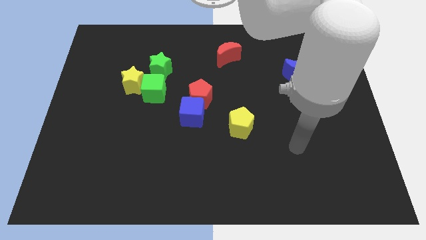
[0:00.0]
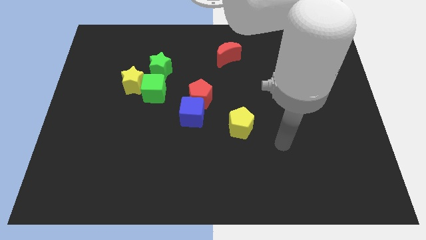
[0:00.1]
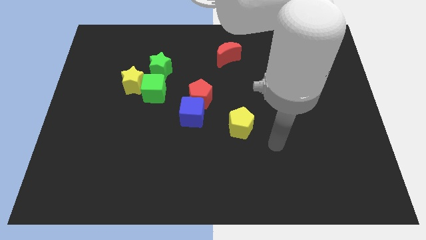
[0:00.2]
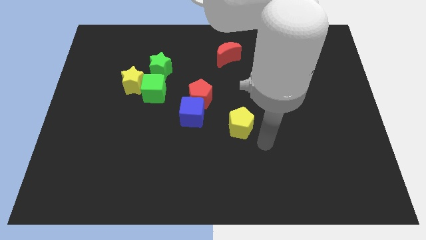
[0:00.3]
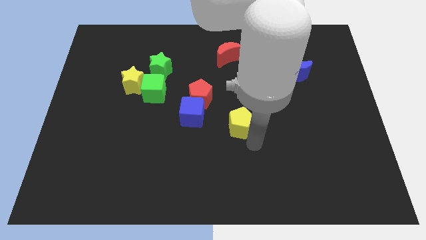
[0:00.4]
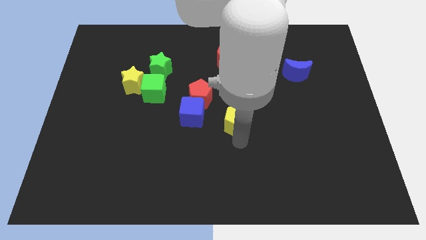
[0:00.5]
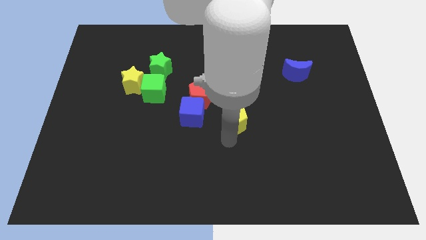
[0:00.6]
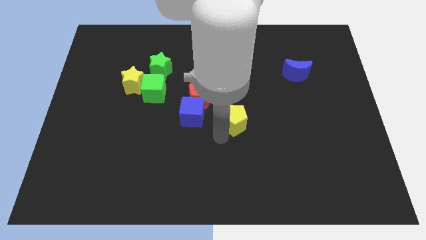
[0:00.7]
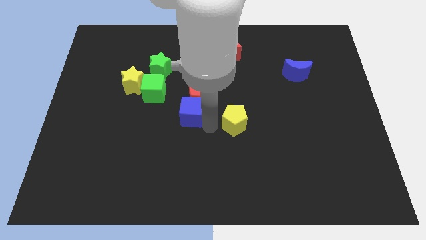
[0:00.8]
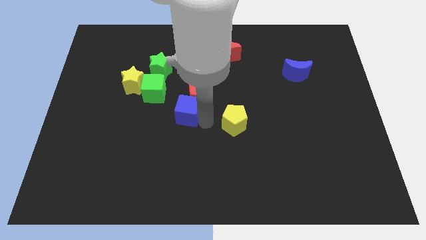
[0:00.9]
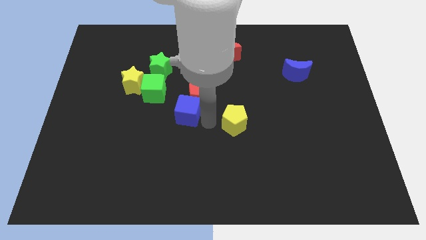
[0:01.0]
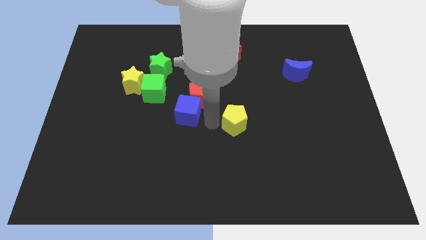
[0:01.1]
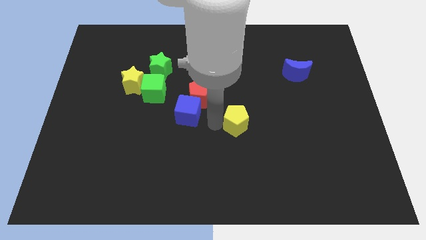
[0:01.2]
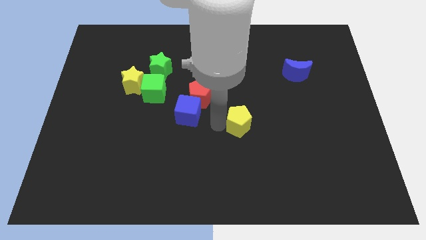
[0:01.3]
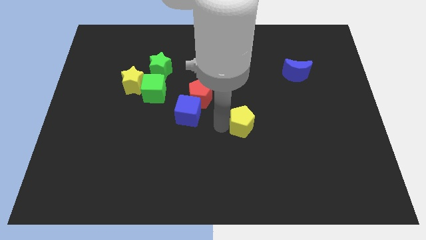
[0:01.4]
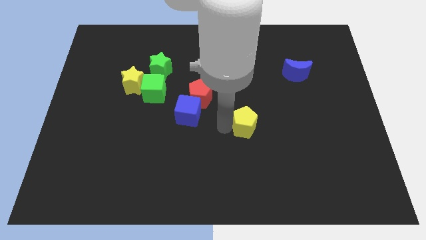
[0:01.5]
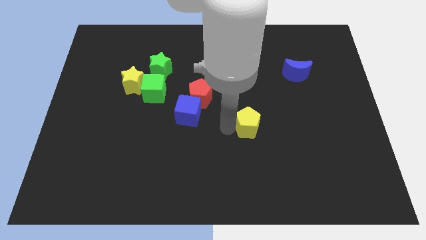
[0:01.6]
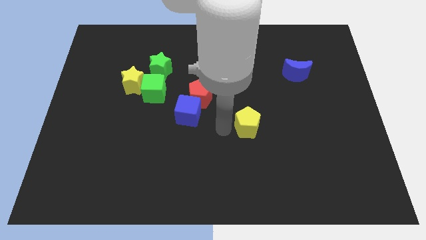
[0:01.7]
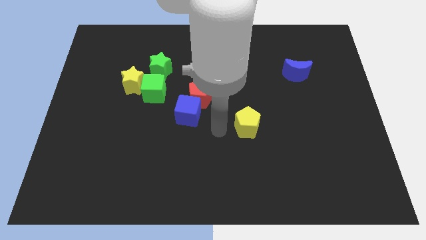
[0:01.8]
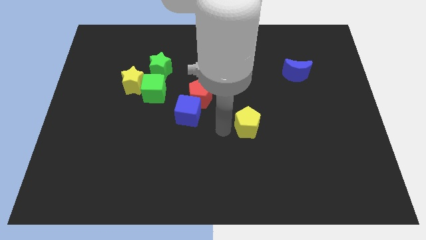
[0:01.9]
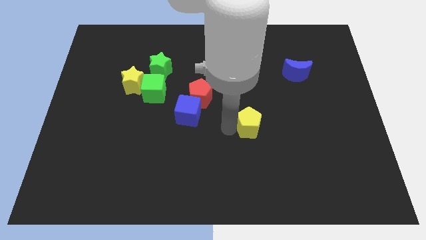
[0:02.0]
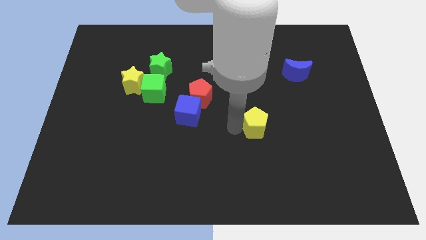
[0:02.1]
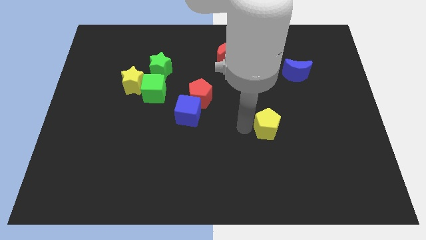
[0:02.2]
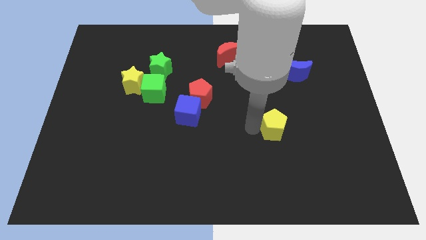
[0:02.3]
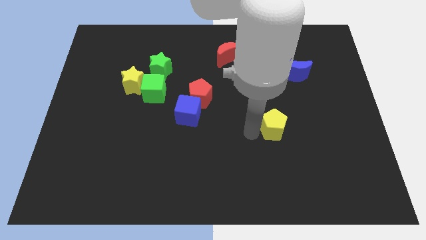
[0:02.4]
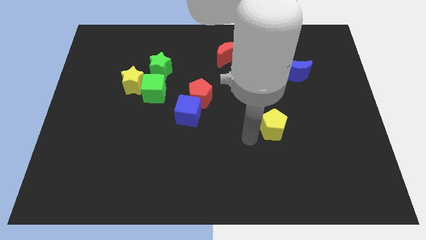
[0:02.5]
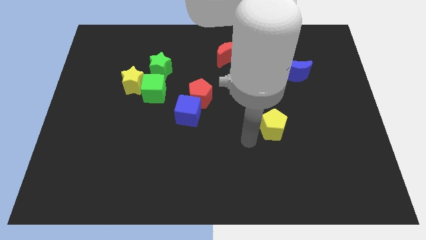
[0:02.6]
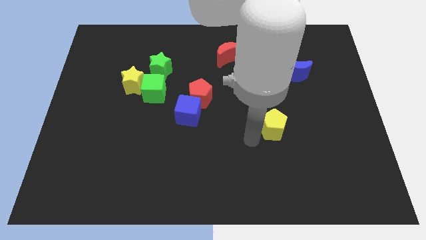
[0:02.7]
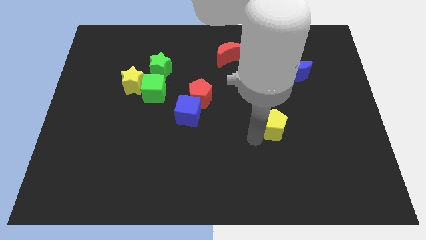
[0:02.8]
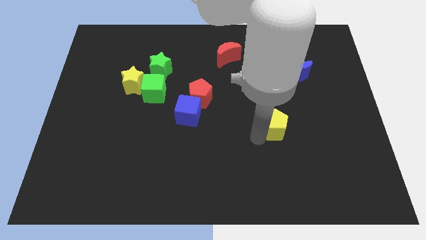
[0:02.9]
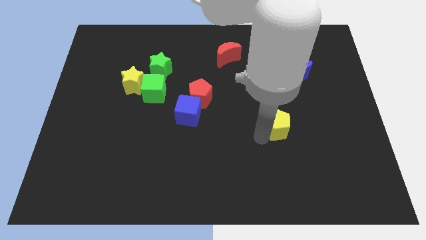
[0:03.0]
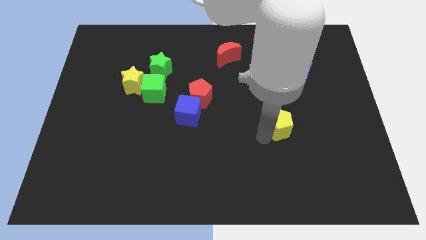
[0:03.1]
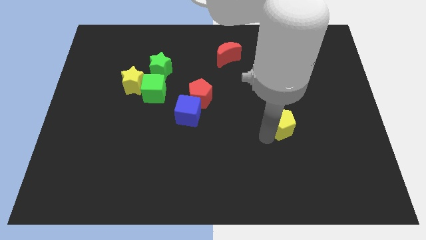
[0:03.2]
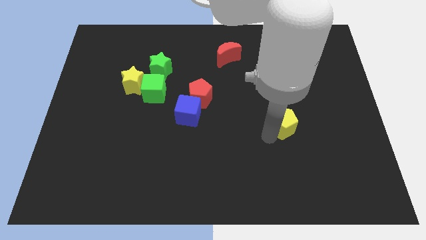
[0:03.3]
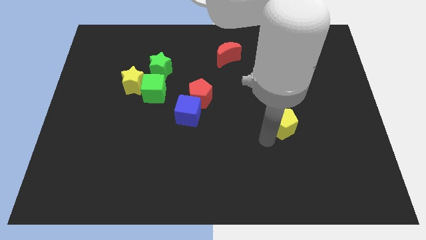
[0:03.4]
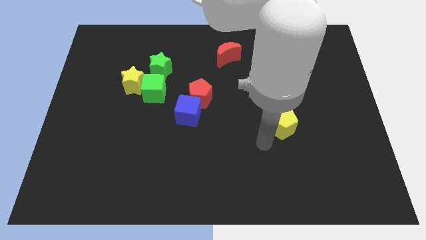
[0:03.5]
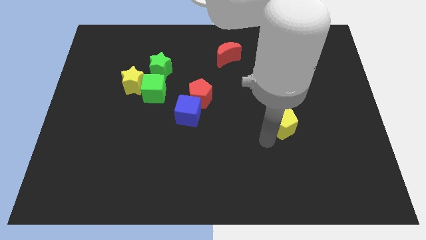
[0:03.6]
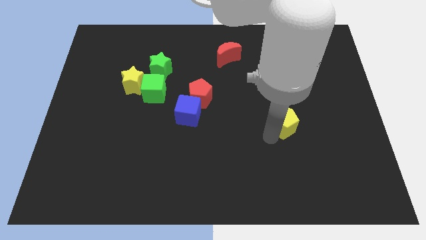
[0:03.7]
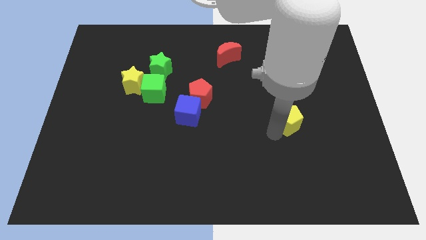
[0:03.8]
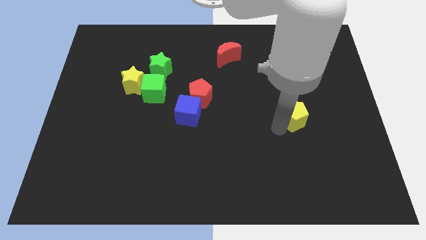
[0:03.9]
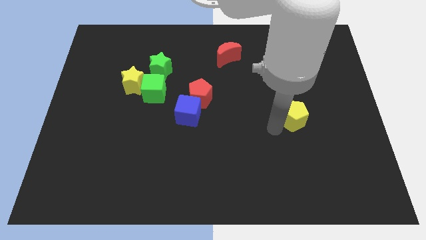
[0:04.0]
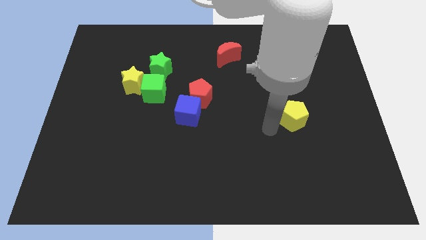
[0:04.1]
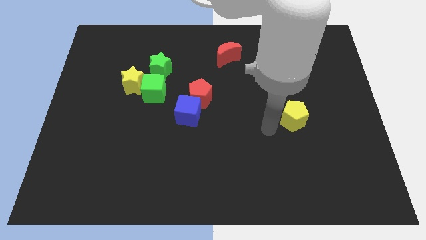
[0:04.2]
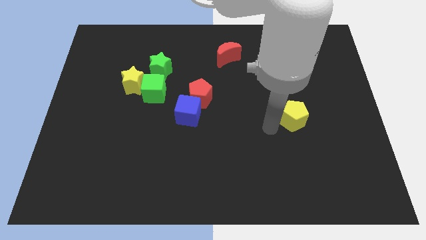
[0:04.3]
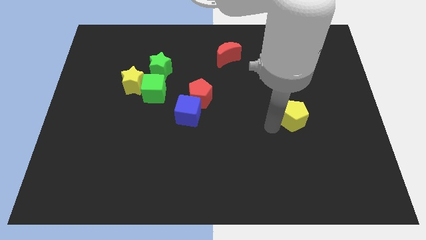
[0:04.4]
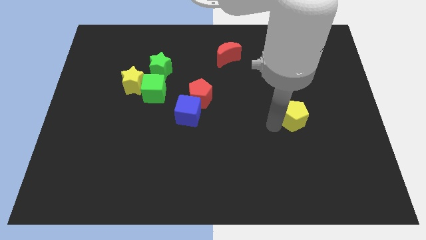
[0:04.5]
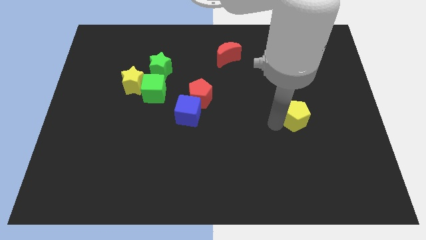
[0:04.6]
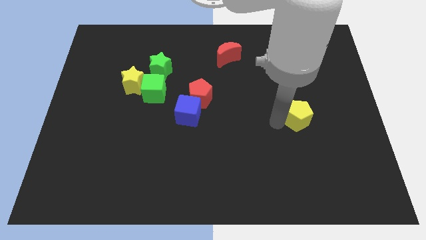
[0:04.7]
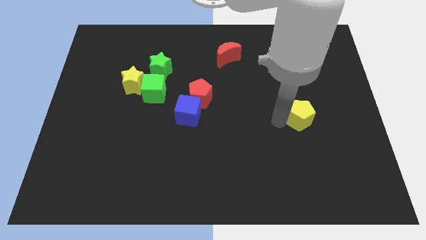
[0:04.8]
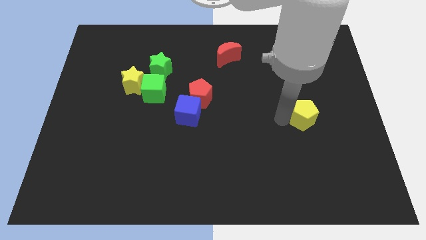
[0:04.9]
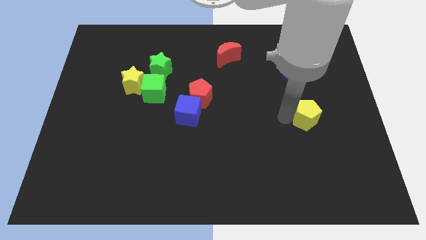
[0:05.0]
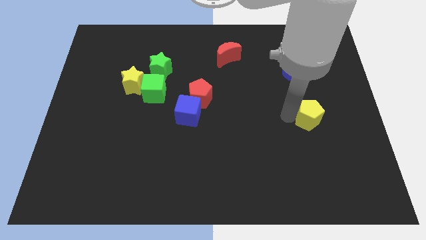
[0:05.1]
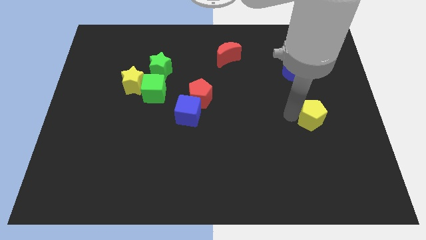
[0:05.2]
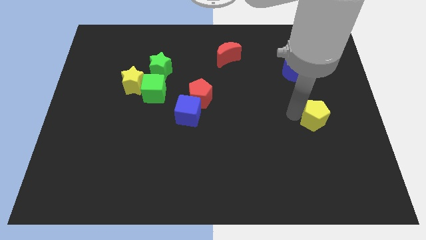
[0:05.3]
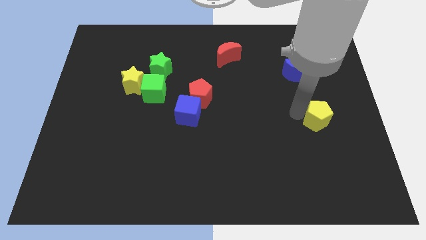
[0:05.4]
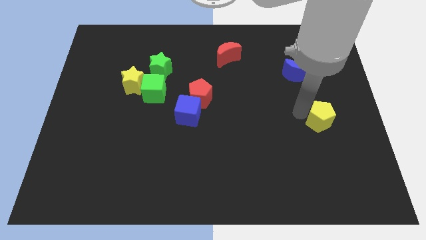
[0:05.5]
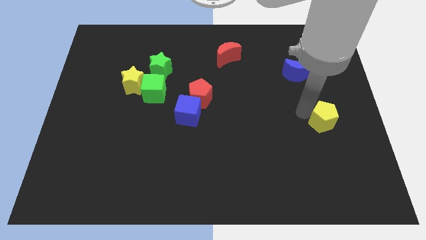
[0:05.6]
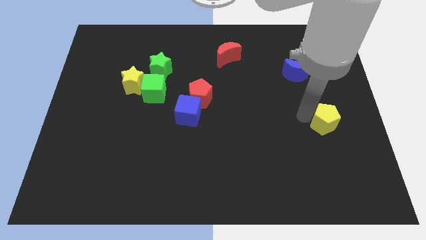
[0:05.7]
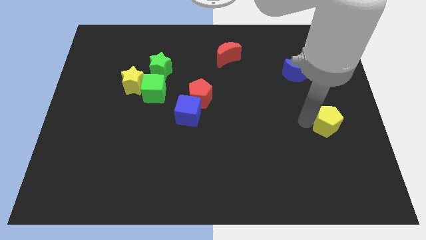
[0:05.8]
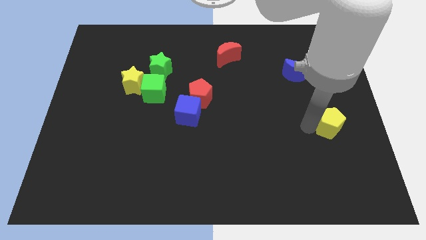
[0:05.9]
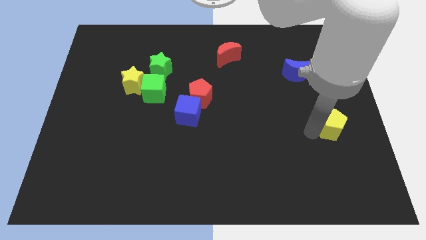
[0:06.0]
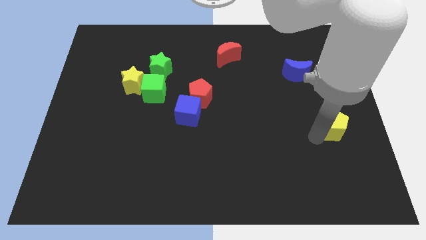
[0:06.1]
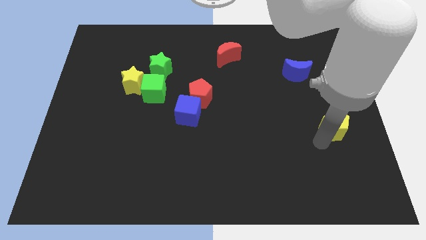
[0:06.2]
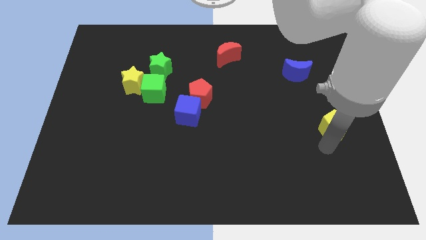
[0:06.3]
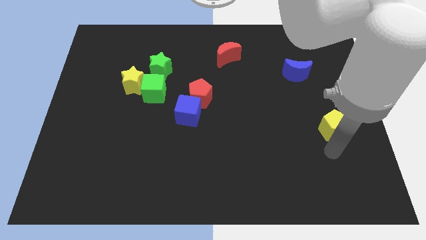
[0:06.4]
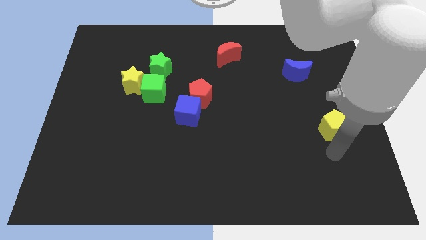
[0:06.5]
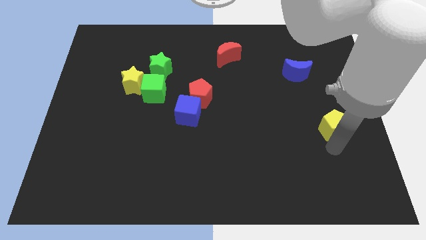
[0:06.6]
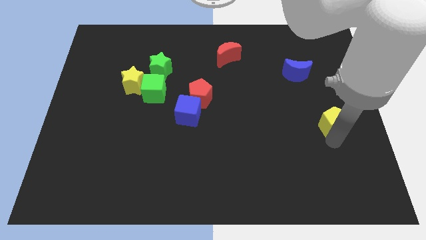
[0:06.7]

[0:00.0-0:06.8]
put the yellow pentagon to the right side

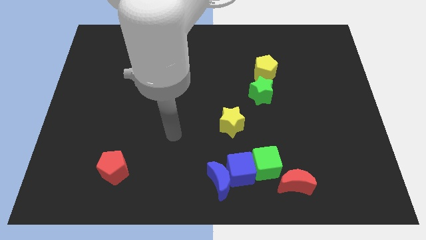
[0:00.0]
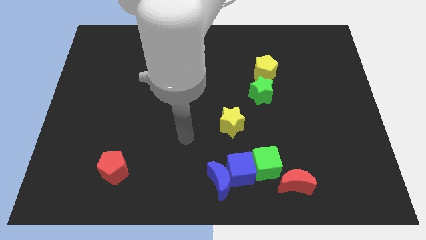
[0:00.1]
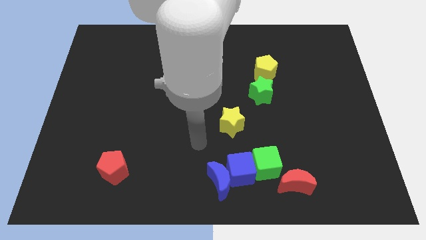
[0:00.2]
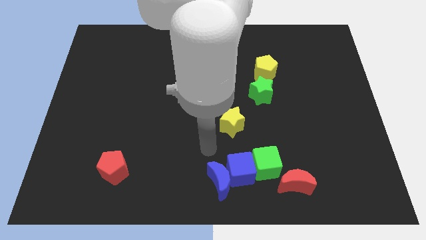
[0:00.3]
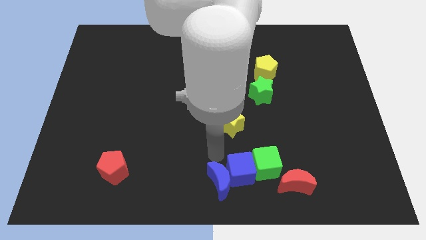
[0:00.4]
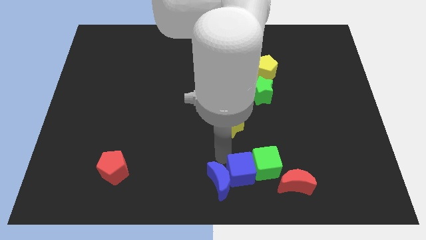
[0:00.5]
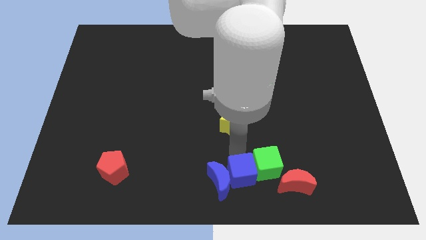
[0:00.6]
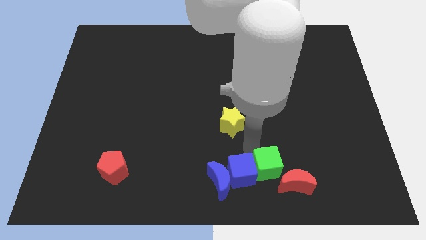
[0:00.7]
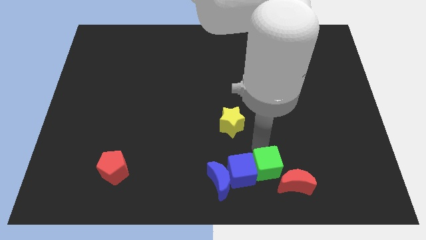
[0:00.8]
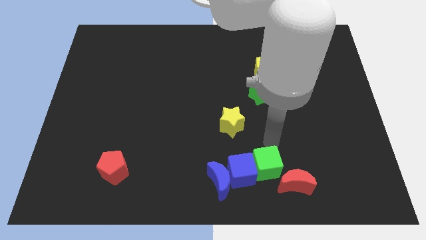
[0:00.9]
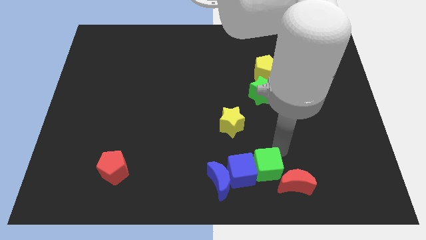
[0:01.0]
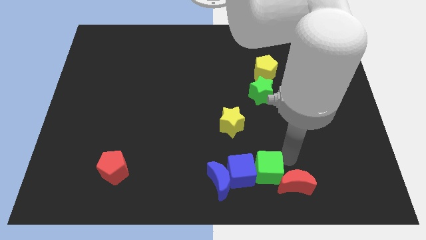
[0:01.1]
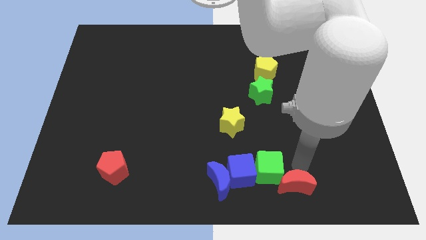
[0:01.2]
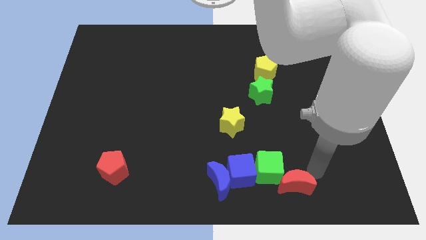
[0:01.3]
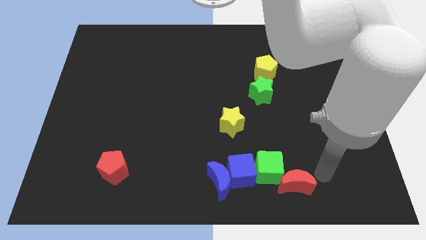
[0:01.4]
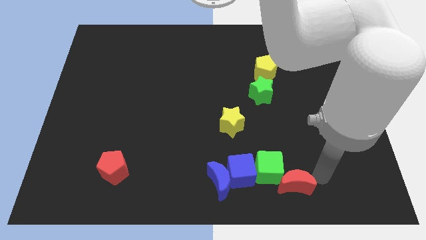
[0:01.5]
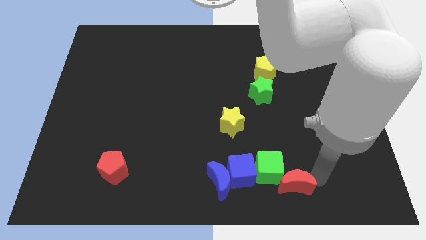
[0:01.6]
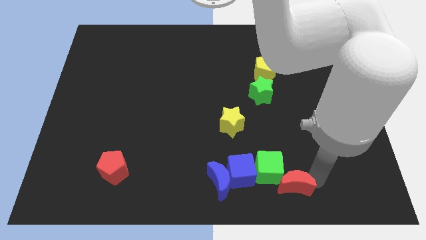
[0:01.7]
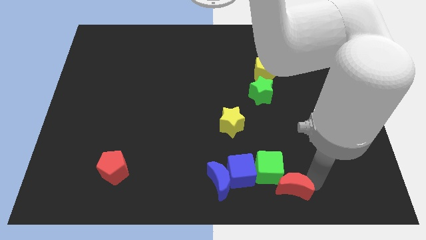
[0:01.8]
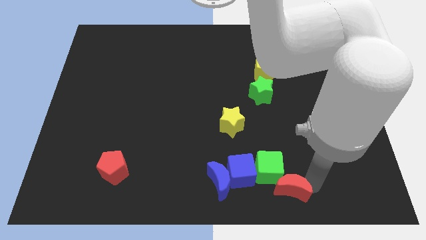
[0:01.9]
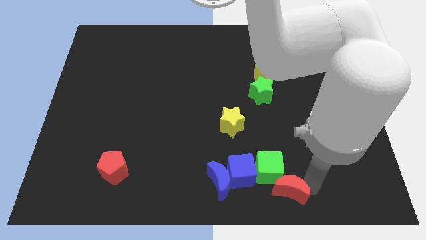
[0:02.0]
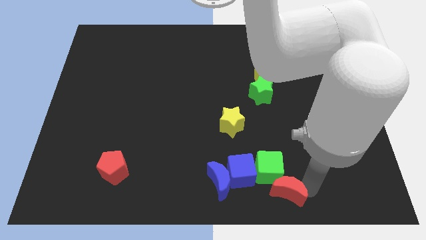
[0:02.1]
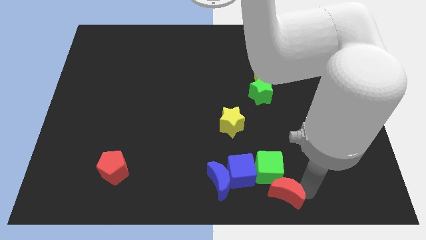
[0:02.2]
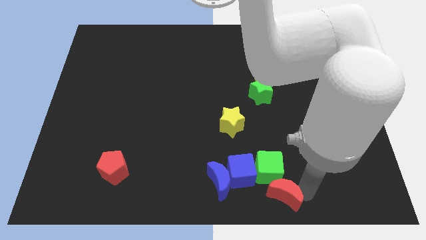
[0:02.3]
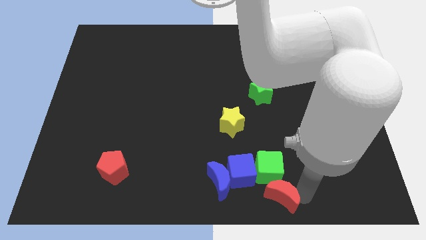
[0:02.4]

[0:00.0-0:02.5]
put the red moon to the bottom side
